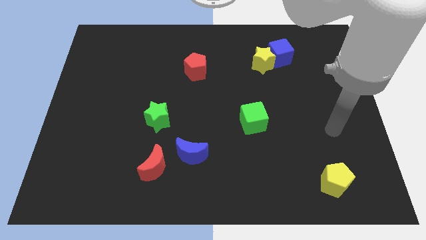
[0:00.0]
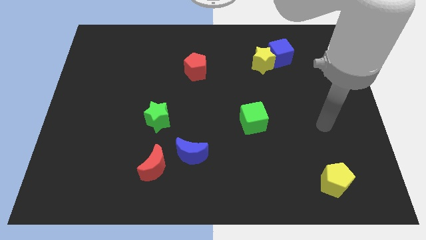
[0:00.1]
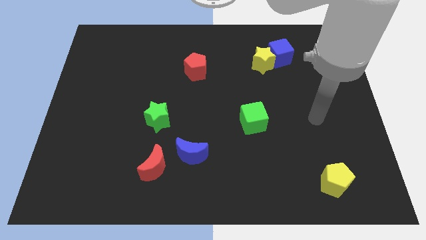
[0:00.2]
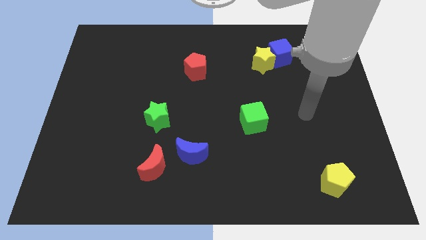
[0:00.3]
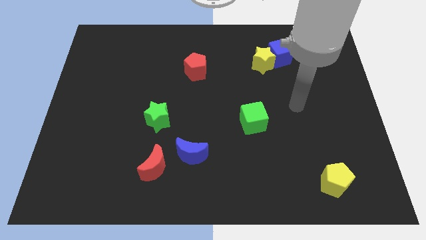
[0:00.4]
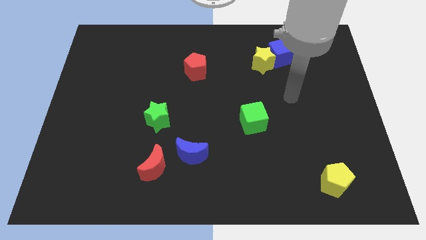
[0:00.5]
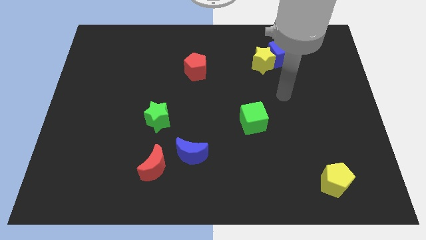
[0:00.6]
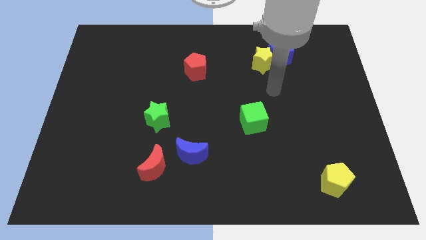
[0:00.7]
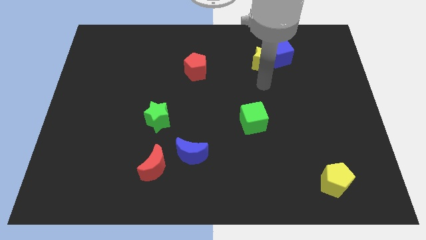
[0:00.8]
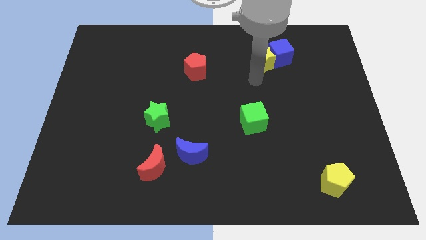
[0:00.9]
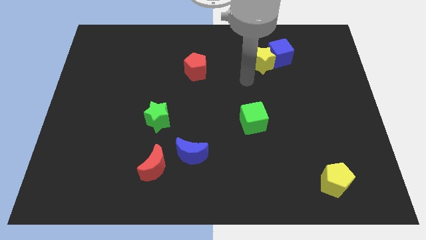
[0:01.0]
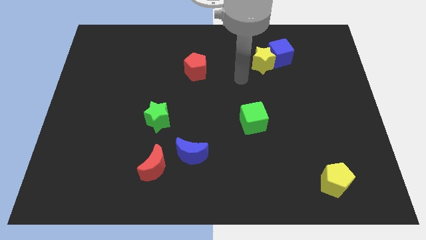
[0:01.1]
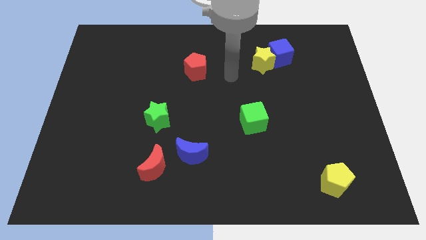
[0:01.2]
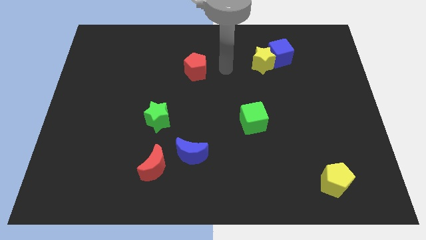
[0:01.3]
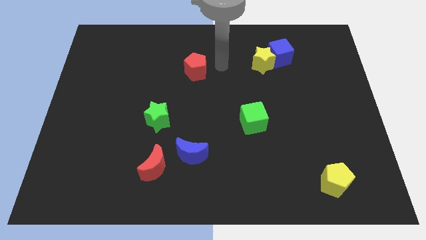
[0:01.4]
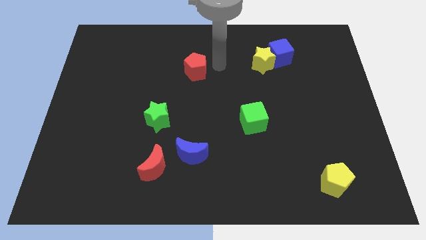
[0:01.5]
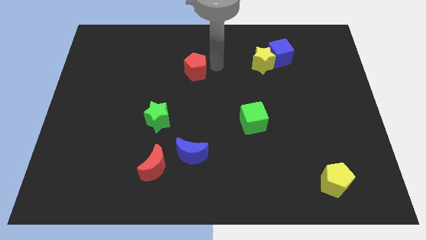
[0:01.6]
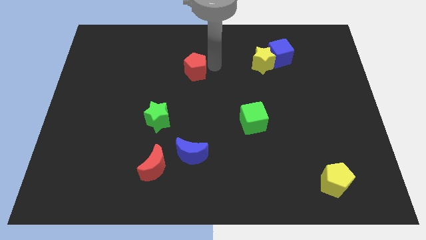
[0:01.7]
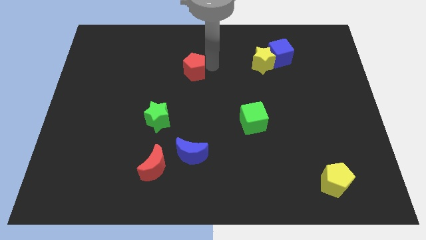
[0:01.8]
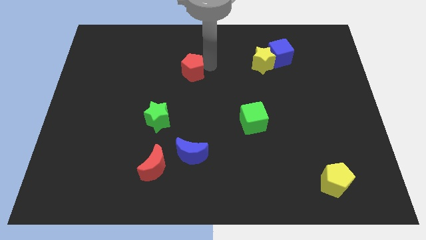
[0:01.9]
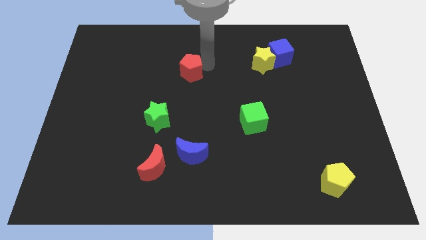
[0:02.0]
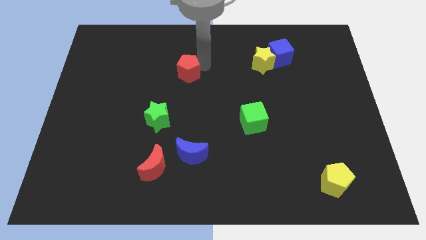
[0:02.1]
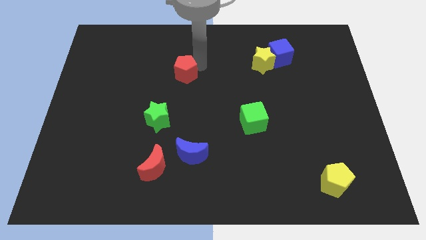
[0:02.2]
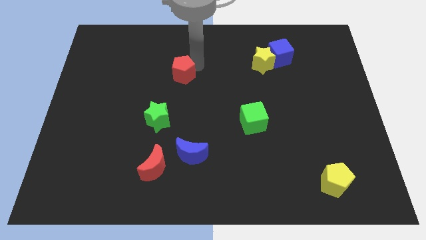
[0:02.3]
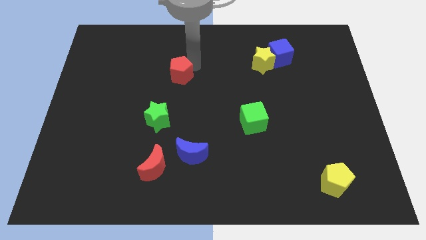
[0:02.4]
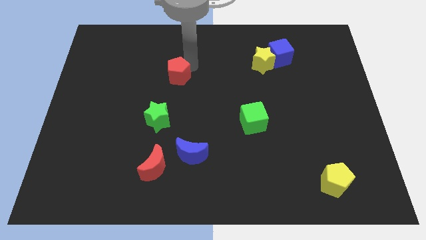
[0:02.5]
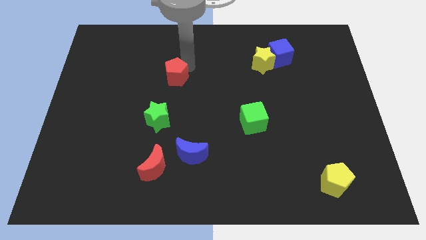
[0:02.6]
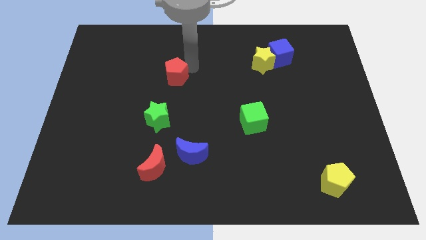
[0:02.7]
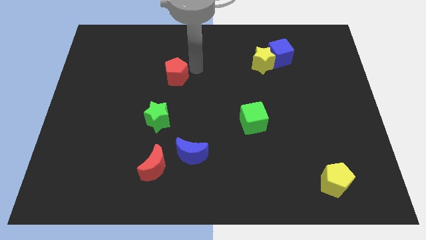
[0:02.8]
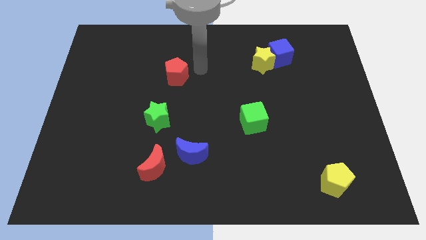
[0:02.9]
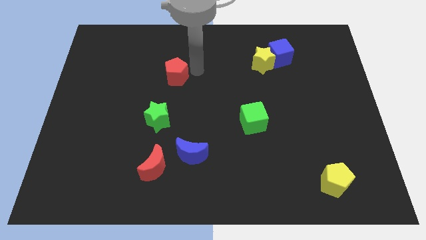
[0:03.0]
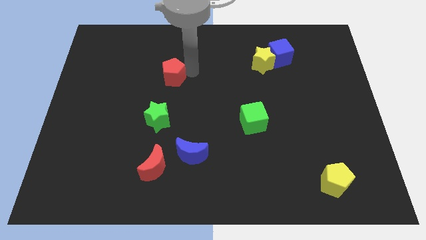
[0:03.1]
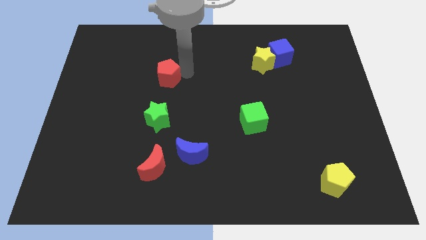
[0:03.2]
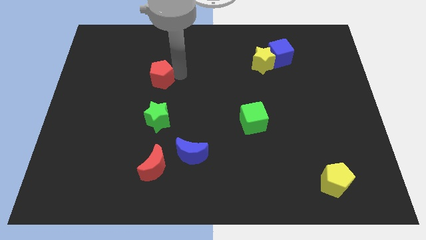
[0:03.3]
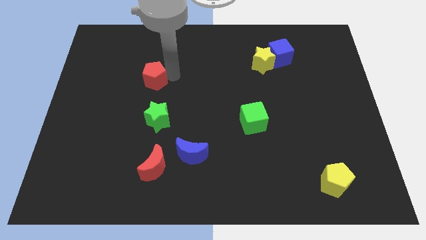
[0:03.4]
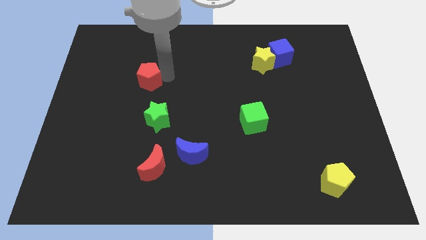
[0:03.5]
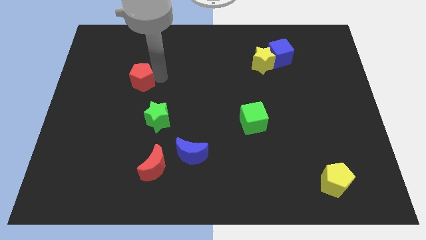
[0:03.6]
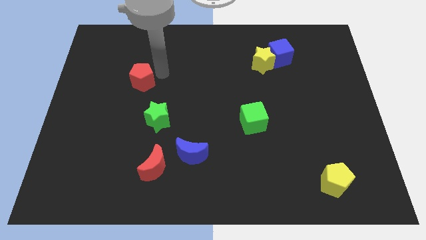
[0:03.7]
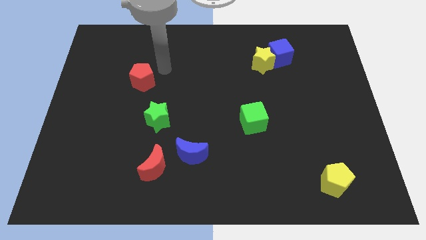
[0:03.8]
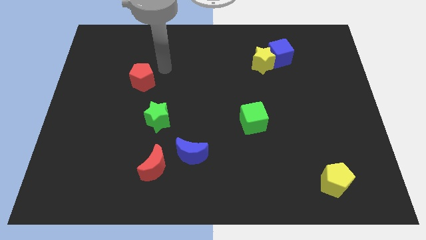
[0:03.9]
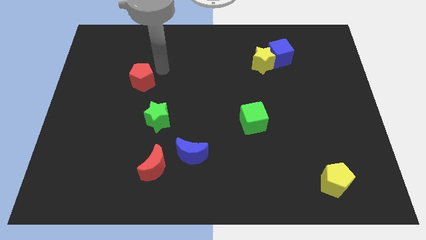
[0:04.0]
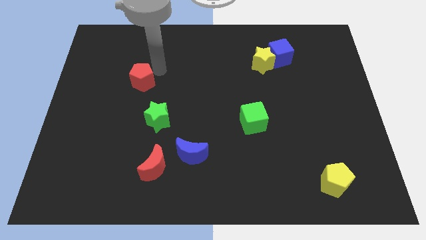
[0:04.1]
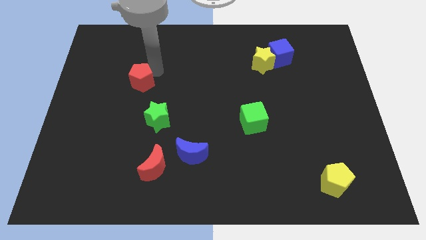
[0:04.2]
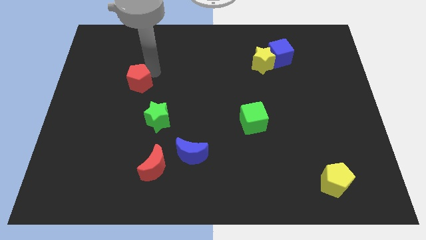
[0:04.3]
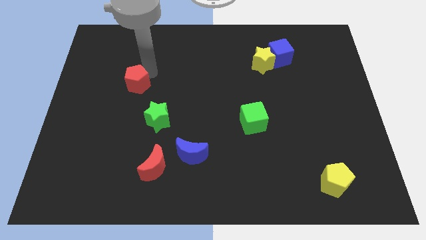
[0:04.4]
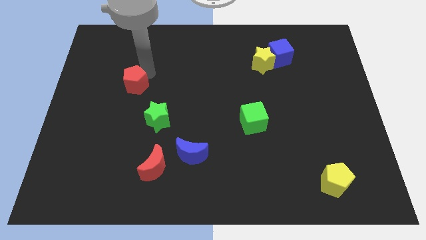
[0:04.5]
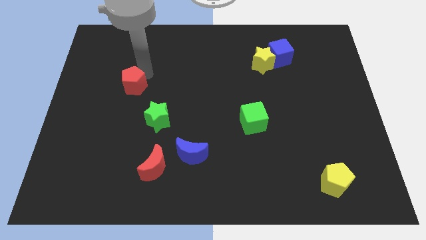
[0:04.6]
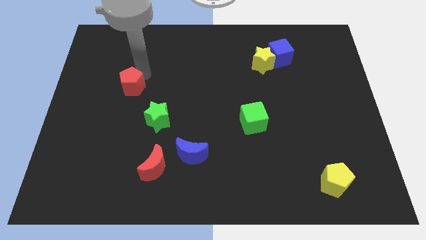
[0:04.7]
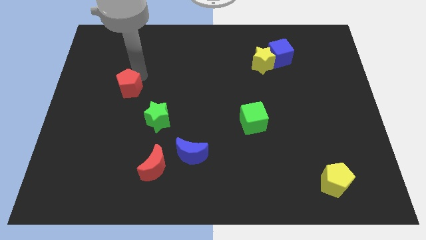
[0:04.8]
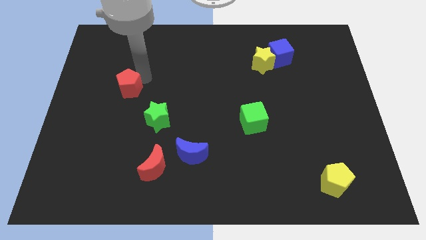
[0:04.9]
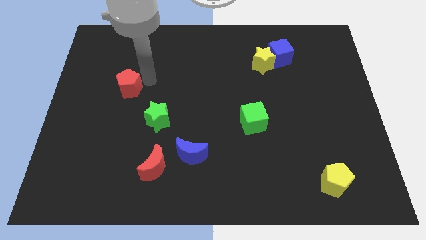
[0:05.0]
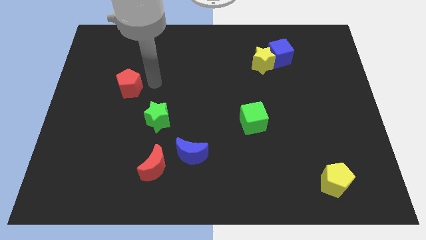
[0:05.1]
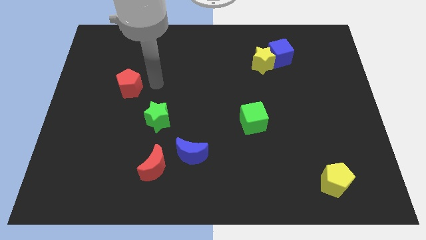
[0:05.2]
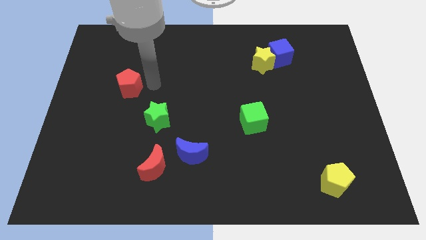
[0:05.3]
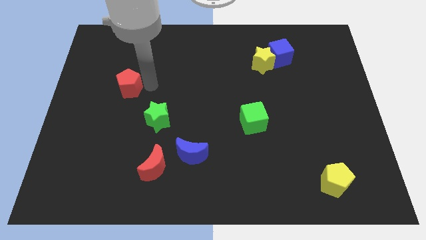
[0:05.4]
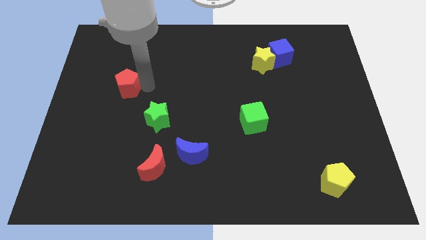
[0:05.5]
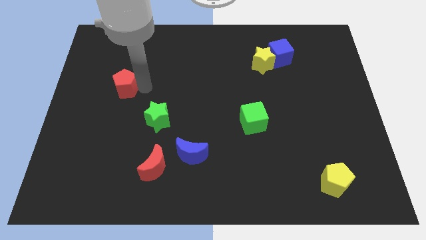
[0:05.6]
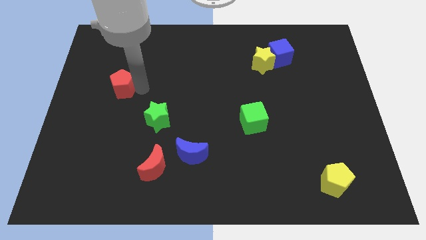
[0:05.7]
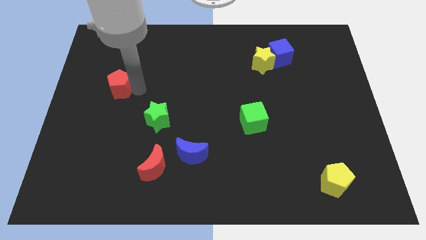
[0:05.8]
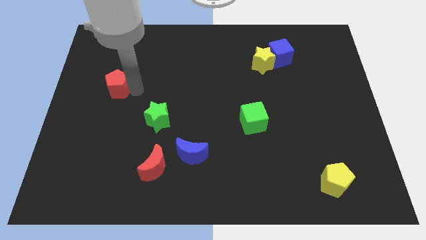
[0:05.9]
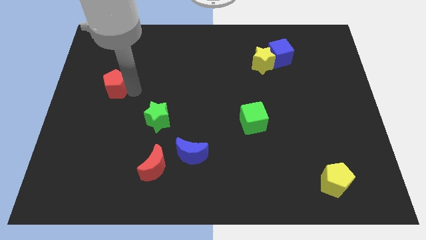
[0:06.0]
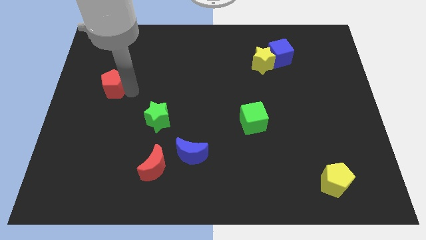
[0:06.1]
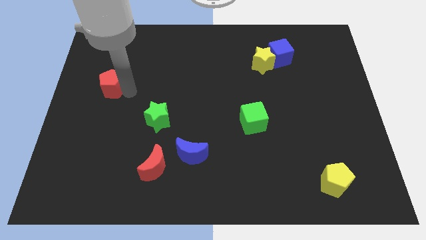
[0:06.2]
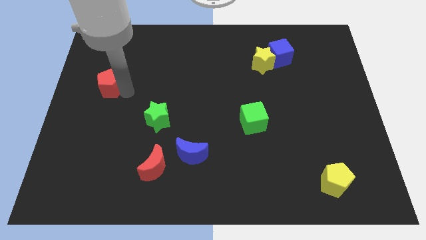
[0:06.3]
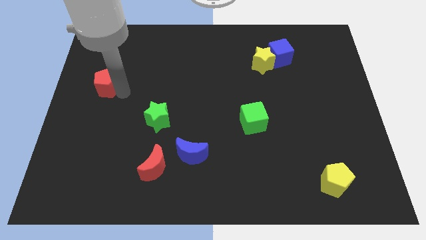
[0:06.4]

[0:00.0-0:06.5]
slide the red pentagon to the left side of the board
